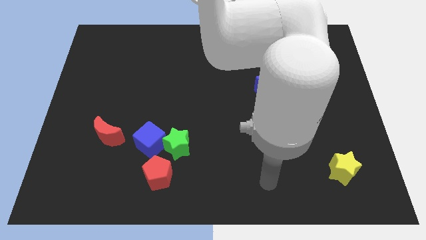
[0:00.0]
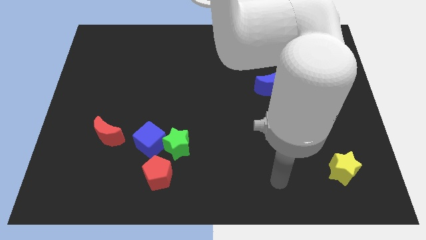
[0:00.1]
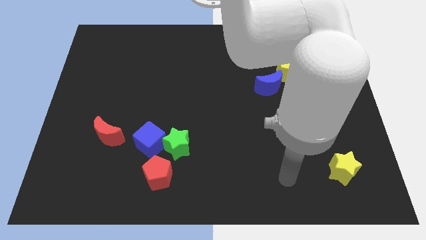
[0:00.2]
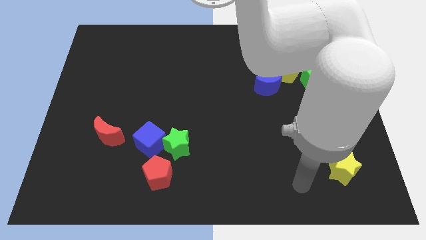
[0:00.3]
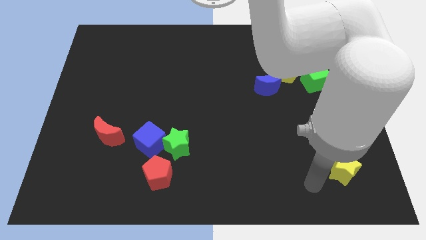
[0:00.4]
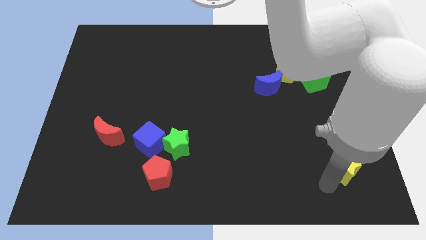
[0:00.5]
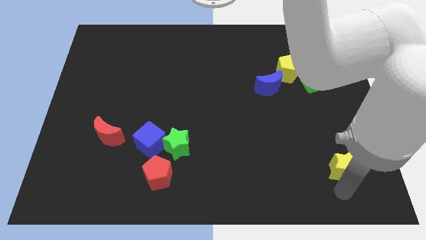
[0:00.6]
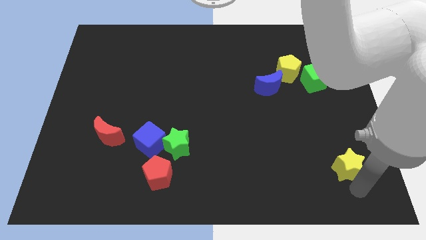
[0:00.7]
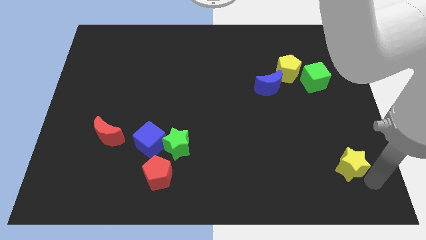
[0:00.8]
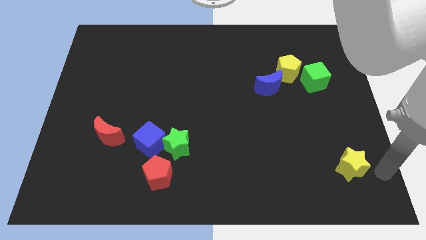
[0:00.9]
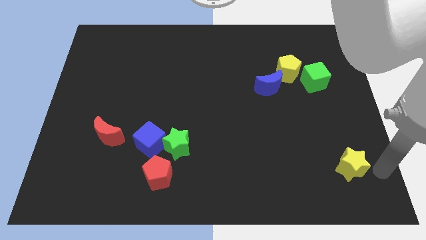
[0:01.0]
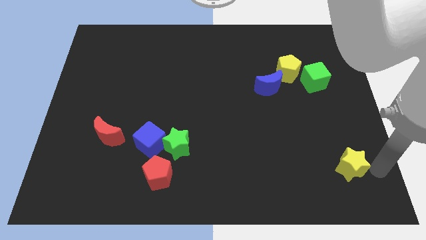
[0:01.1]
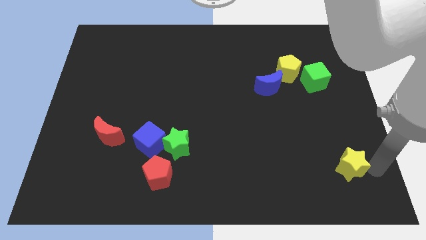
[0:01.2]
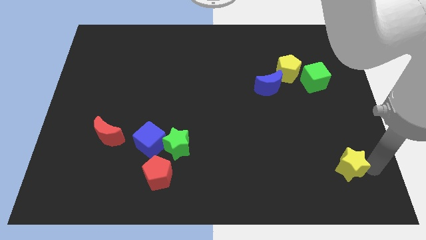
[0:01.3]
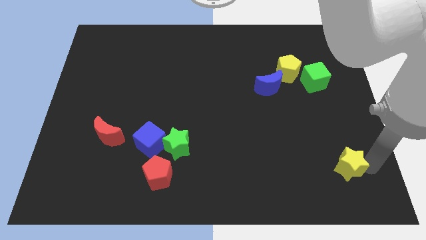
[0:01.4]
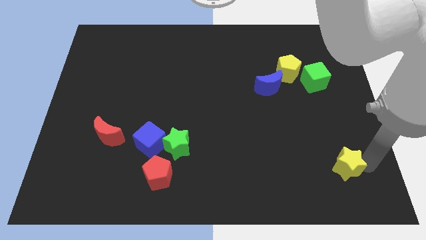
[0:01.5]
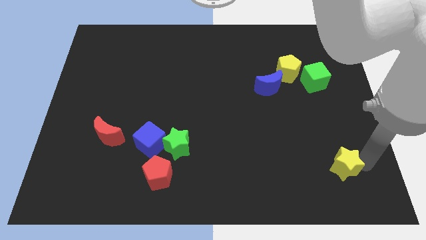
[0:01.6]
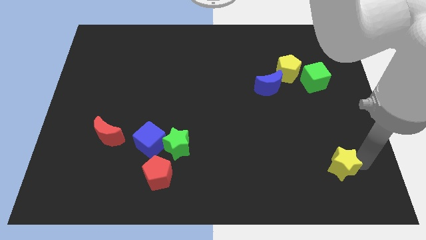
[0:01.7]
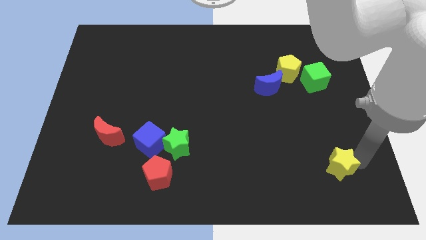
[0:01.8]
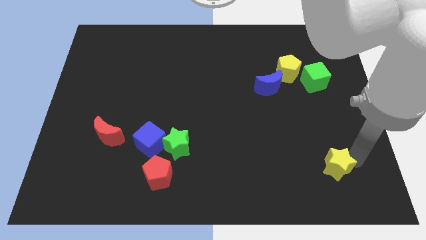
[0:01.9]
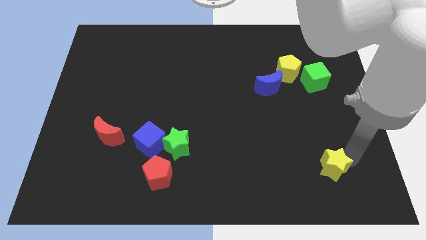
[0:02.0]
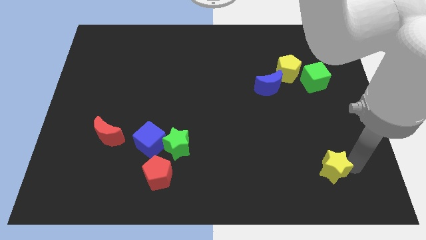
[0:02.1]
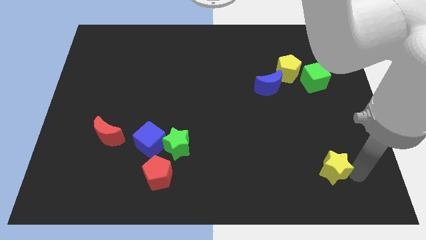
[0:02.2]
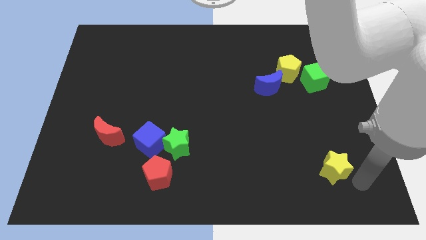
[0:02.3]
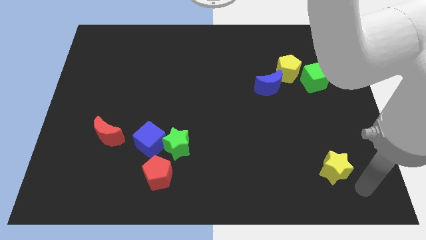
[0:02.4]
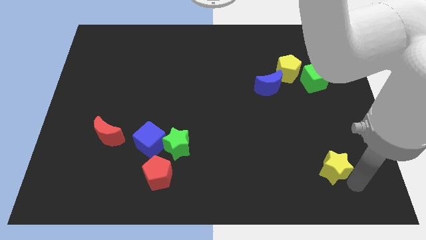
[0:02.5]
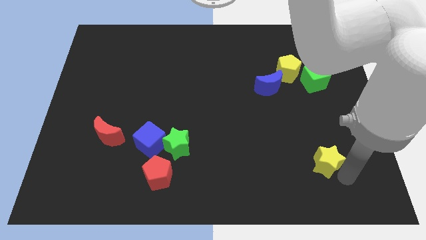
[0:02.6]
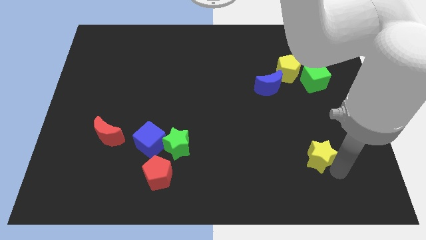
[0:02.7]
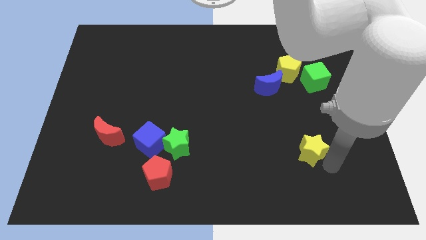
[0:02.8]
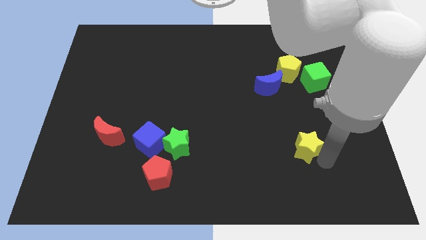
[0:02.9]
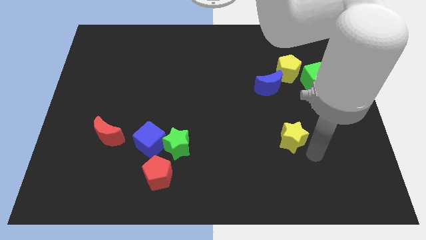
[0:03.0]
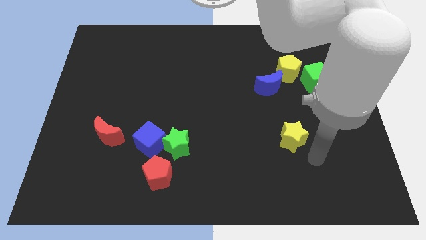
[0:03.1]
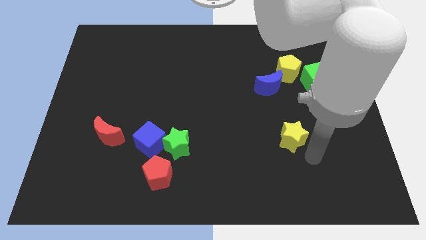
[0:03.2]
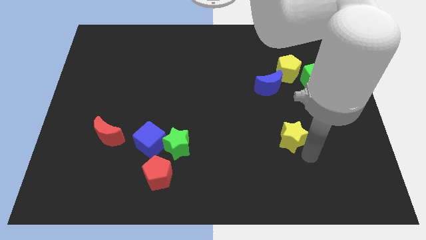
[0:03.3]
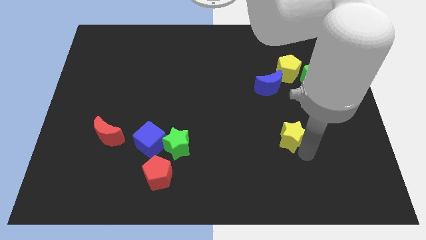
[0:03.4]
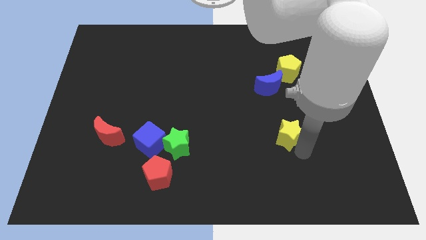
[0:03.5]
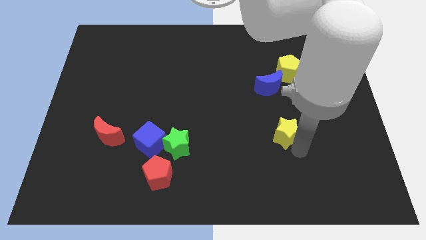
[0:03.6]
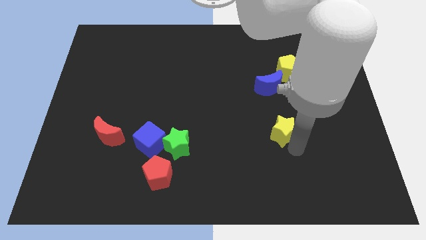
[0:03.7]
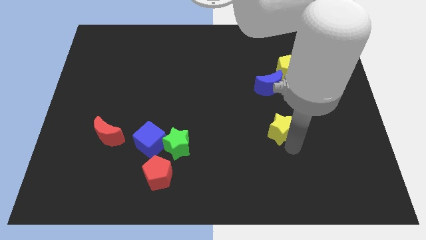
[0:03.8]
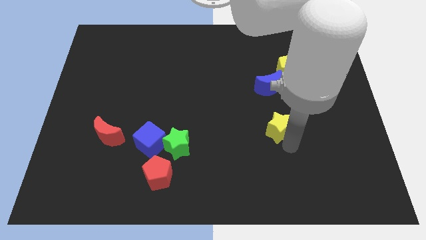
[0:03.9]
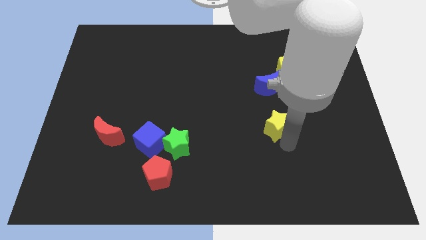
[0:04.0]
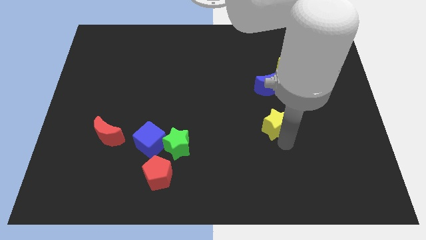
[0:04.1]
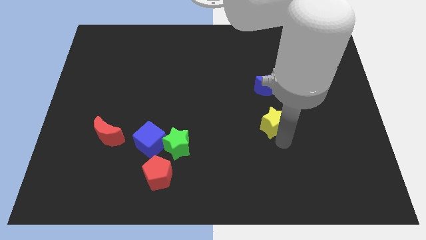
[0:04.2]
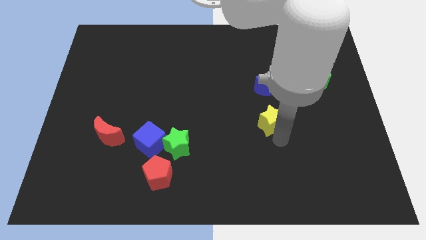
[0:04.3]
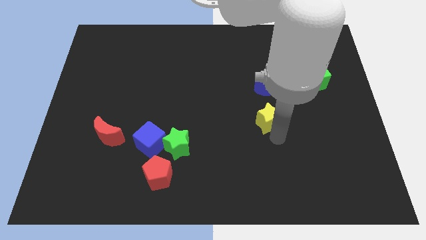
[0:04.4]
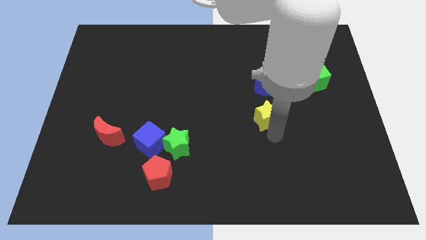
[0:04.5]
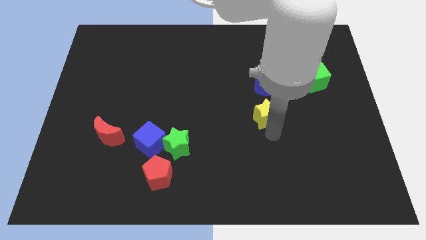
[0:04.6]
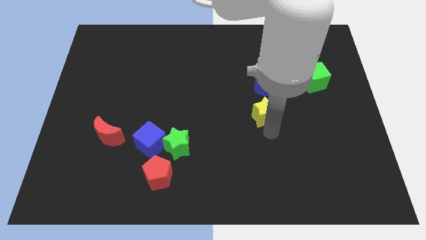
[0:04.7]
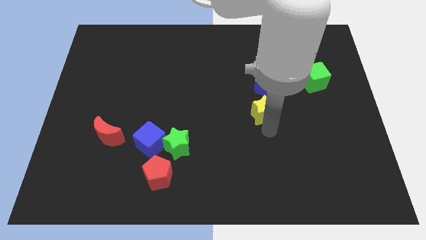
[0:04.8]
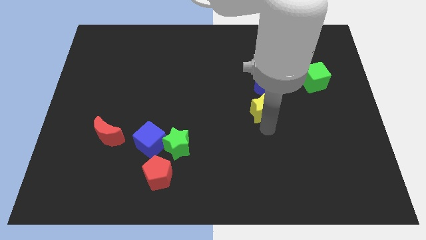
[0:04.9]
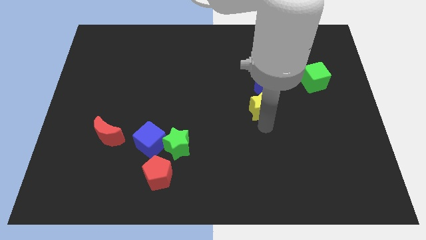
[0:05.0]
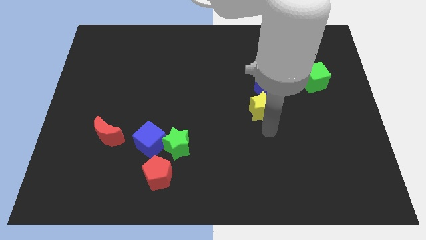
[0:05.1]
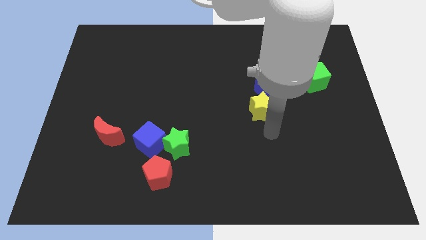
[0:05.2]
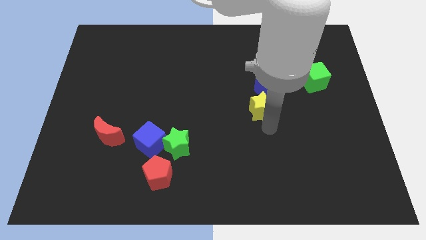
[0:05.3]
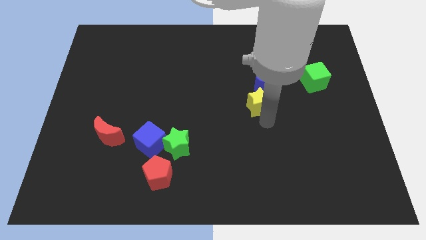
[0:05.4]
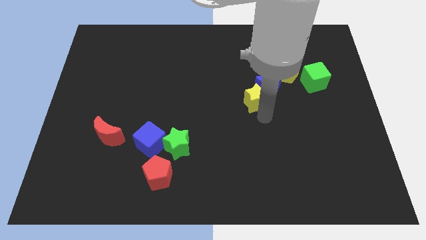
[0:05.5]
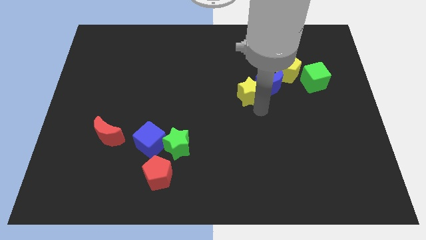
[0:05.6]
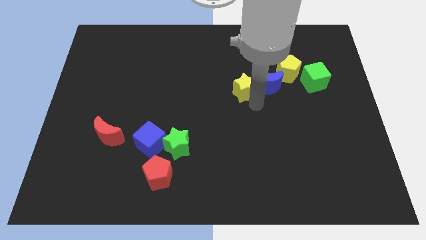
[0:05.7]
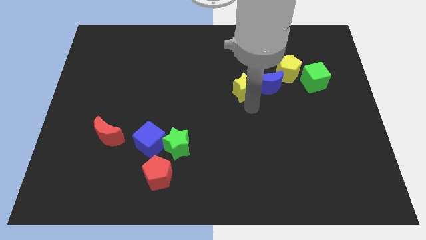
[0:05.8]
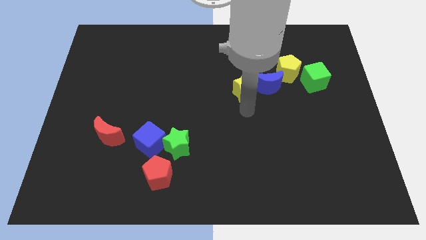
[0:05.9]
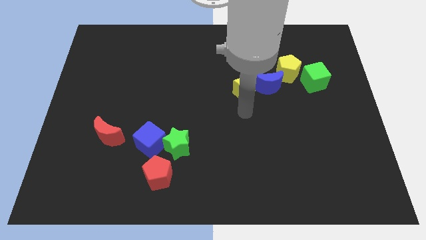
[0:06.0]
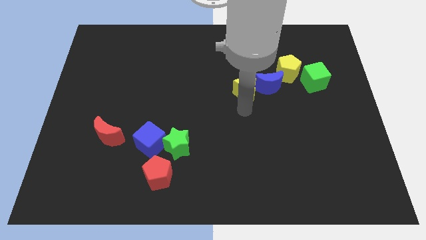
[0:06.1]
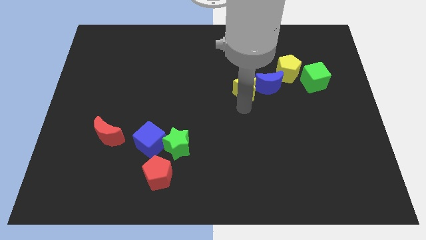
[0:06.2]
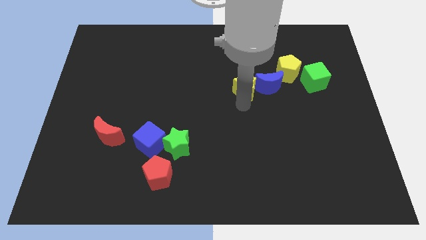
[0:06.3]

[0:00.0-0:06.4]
push the yellow star to the top left of the blue moon

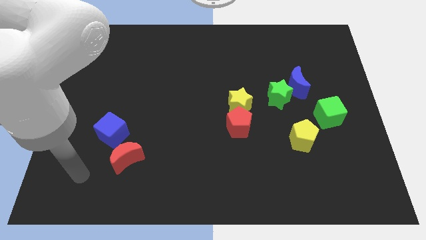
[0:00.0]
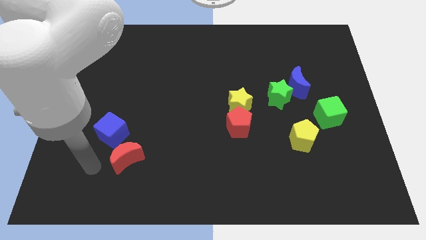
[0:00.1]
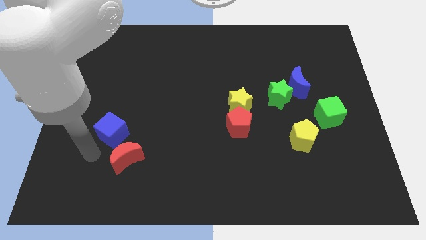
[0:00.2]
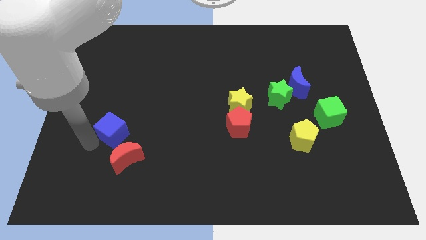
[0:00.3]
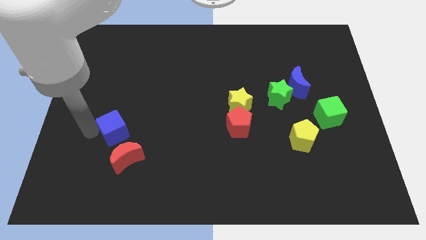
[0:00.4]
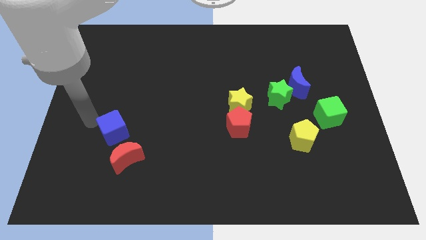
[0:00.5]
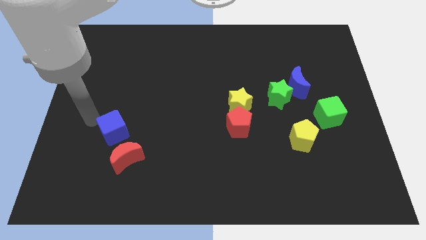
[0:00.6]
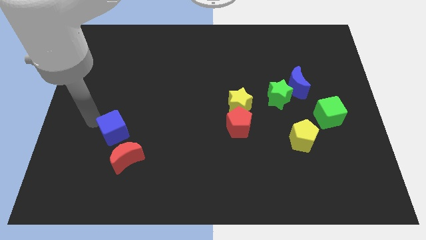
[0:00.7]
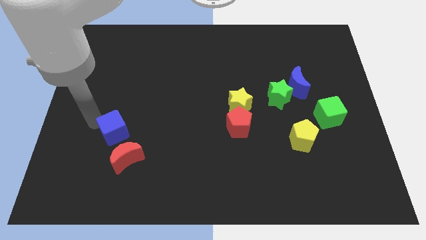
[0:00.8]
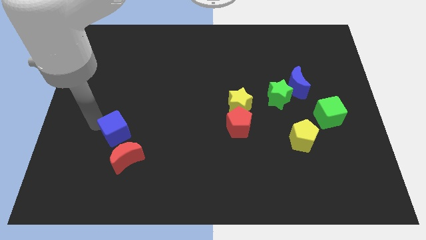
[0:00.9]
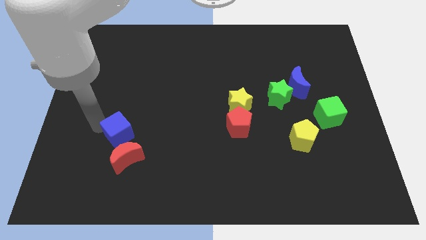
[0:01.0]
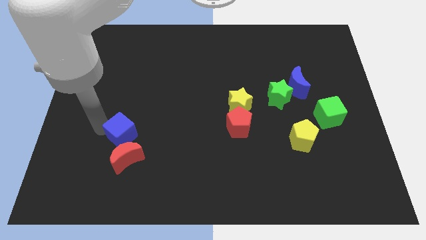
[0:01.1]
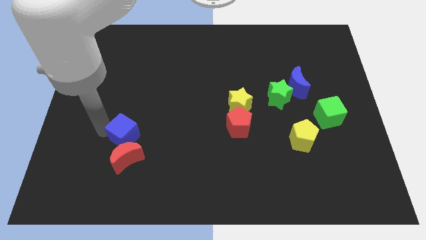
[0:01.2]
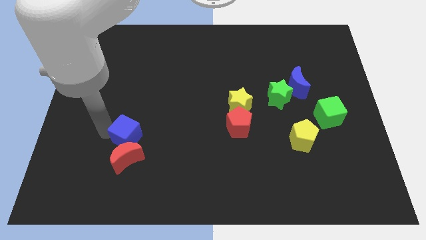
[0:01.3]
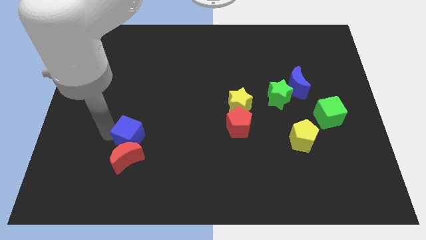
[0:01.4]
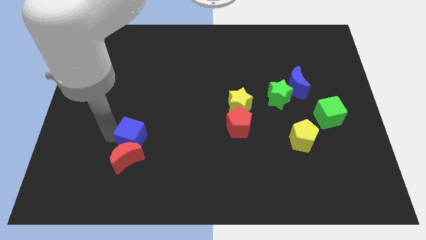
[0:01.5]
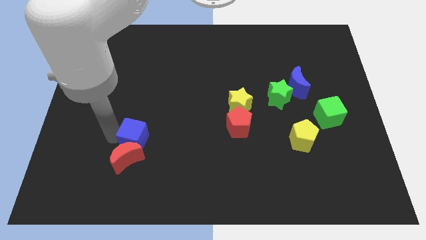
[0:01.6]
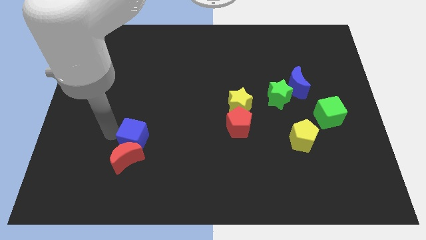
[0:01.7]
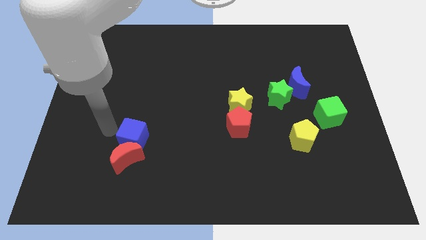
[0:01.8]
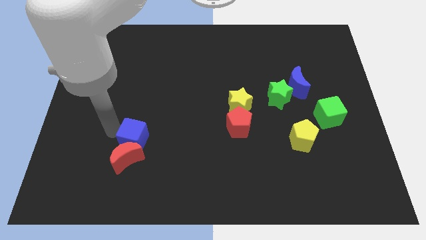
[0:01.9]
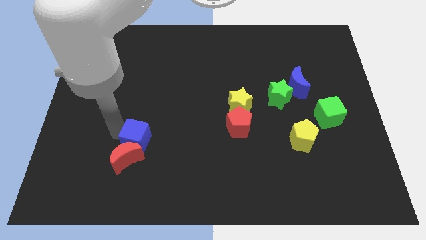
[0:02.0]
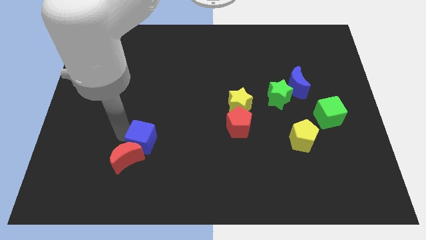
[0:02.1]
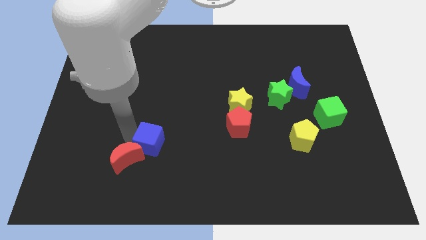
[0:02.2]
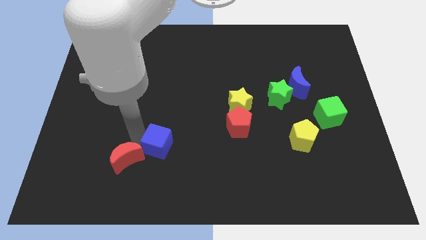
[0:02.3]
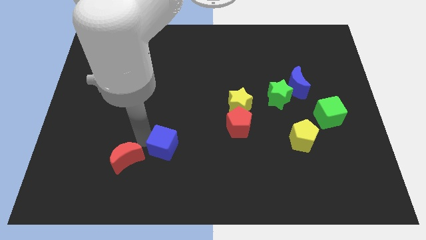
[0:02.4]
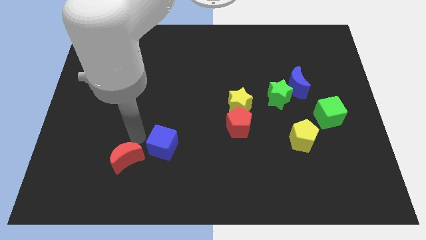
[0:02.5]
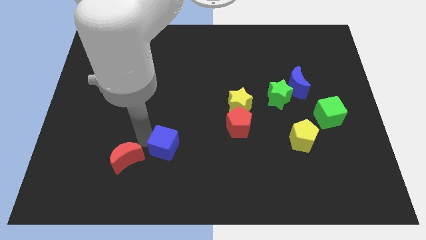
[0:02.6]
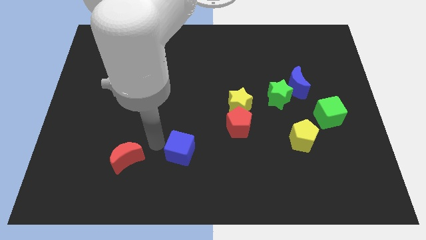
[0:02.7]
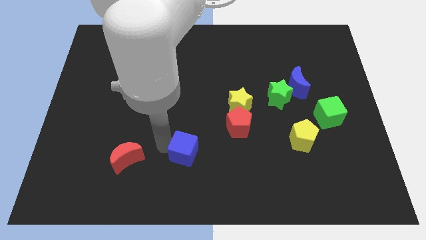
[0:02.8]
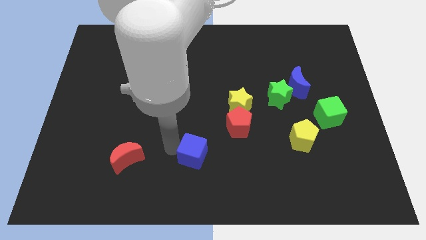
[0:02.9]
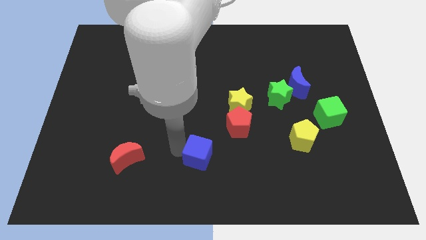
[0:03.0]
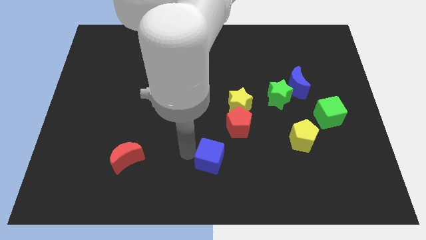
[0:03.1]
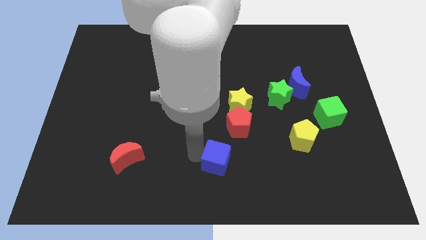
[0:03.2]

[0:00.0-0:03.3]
slide the blue cube to the bottom of the red pentagon
